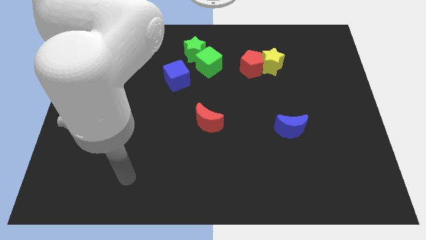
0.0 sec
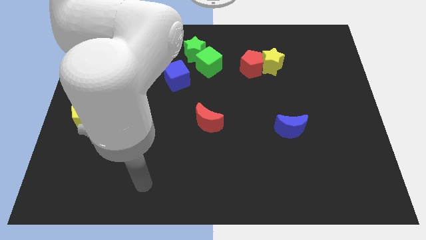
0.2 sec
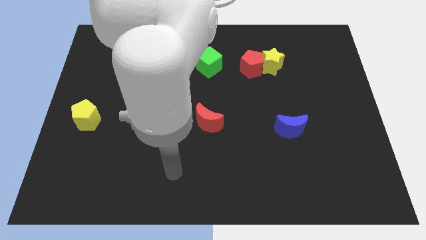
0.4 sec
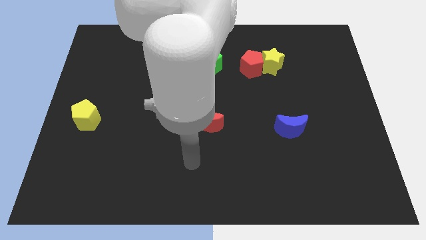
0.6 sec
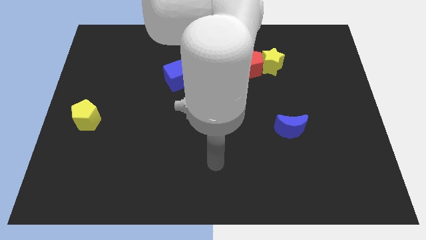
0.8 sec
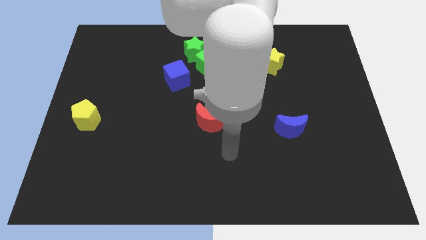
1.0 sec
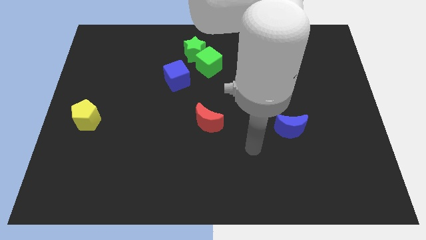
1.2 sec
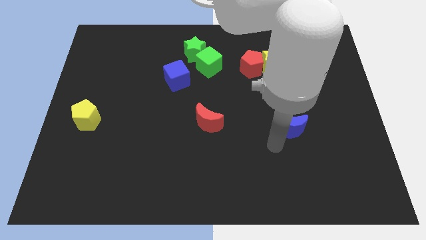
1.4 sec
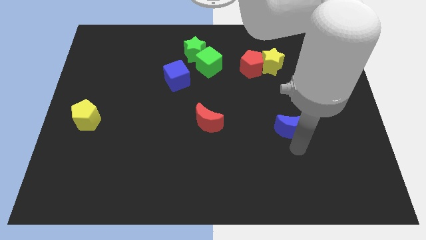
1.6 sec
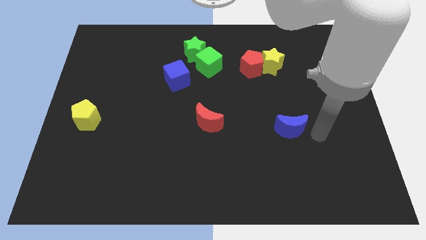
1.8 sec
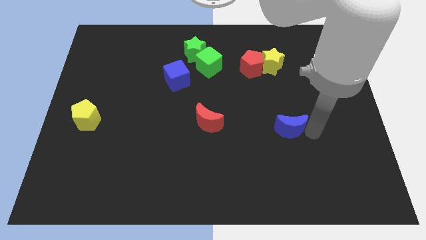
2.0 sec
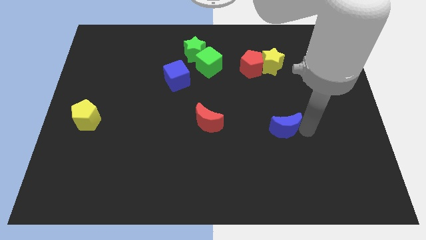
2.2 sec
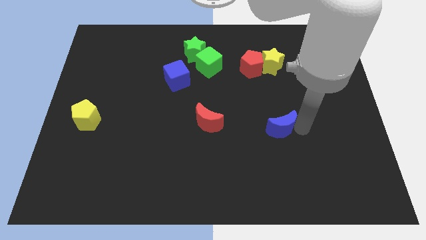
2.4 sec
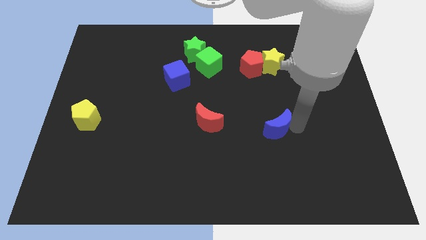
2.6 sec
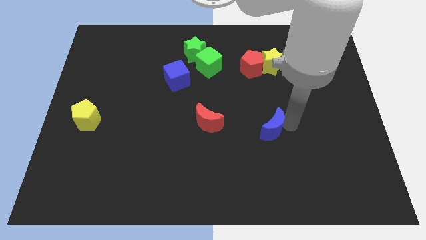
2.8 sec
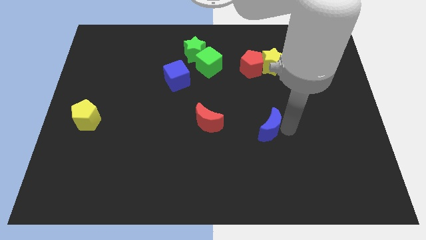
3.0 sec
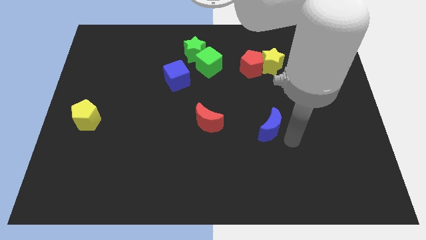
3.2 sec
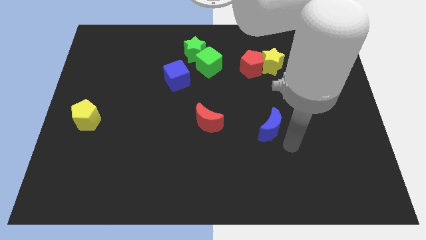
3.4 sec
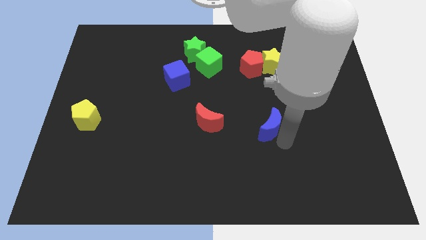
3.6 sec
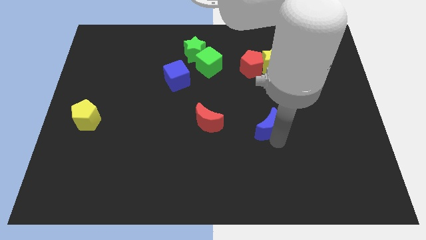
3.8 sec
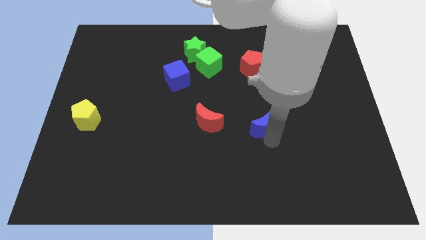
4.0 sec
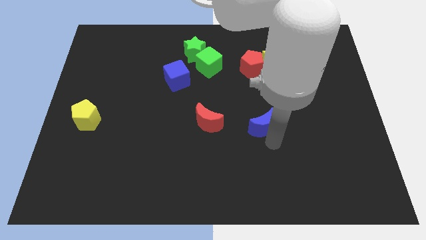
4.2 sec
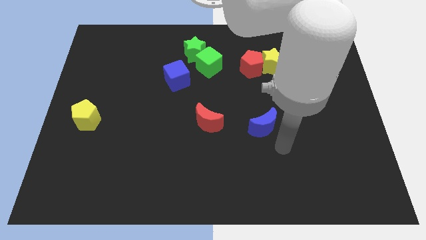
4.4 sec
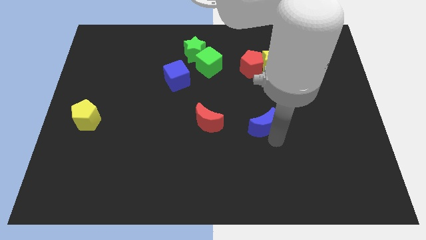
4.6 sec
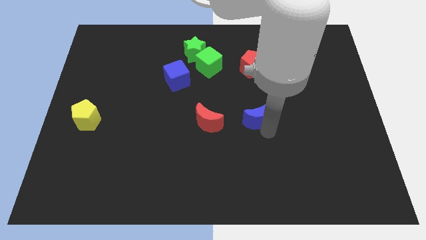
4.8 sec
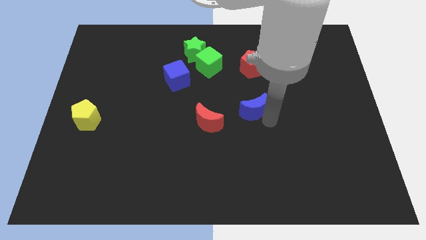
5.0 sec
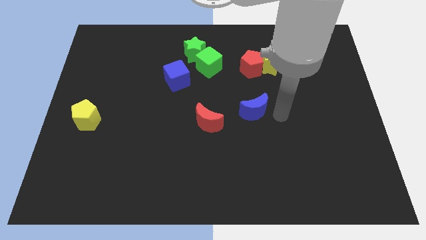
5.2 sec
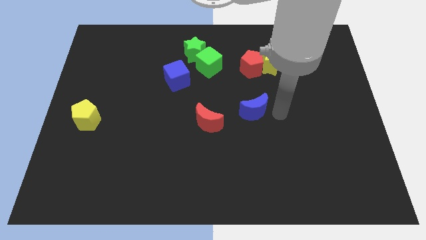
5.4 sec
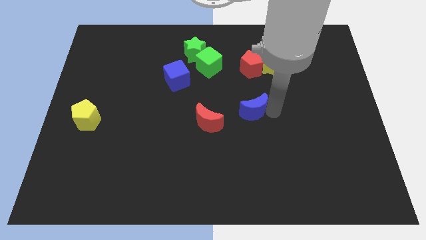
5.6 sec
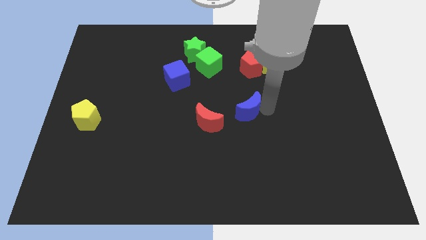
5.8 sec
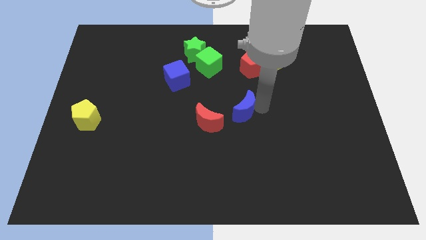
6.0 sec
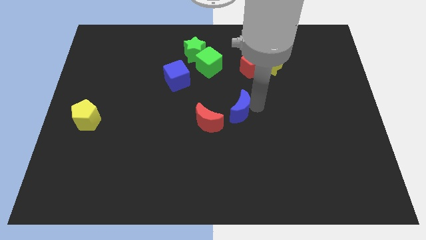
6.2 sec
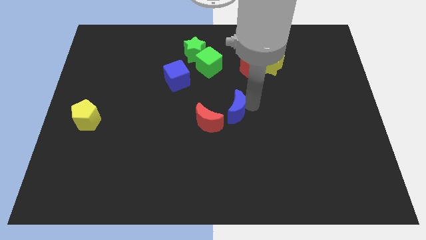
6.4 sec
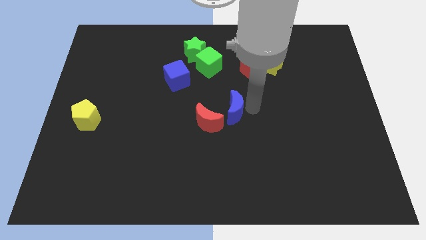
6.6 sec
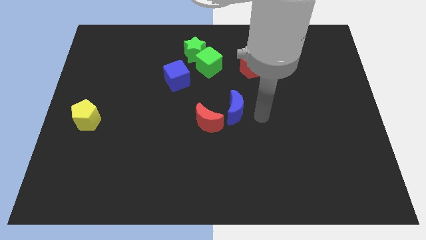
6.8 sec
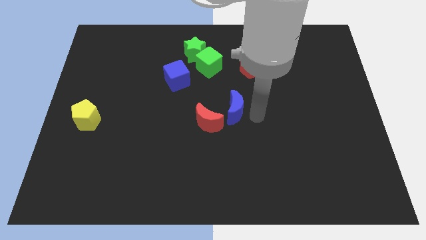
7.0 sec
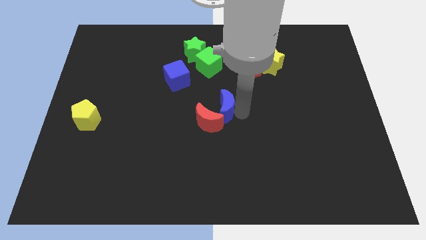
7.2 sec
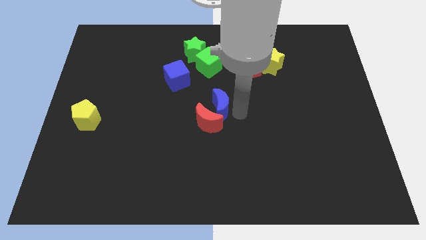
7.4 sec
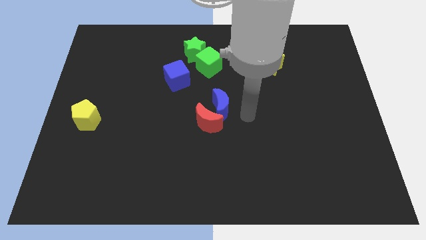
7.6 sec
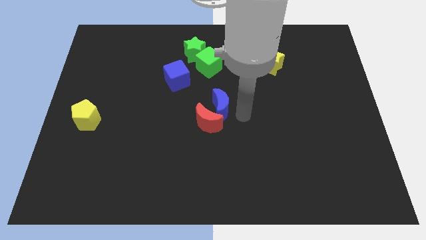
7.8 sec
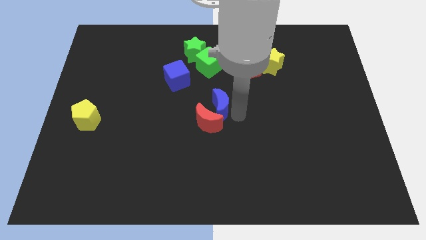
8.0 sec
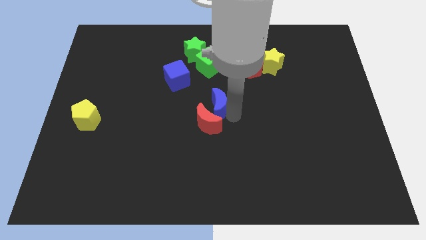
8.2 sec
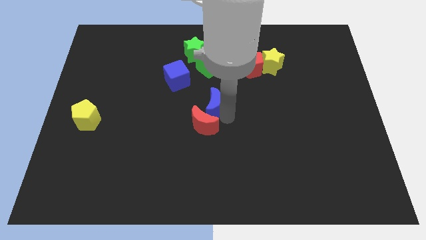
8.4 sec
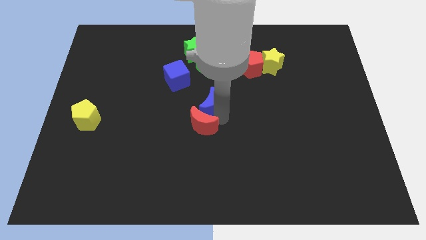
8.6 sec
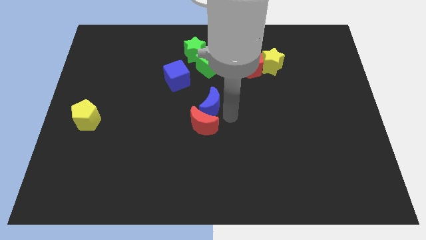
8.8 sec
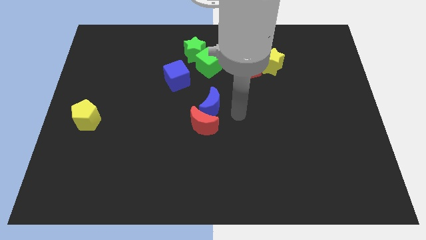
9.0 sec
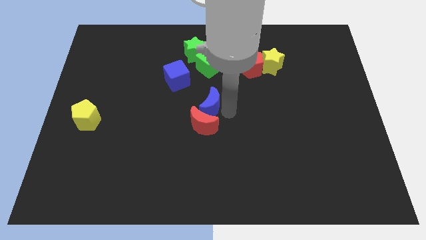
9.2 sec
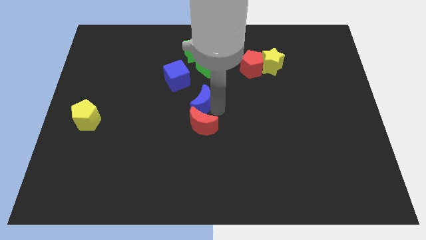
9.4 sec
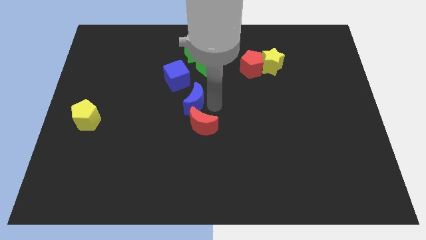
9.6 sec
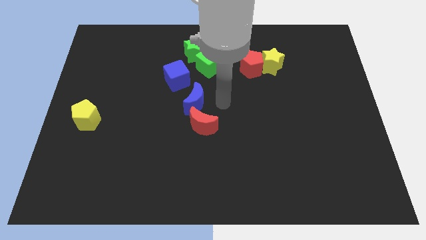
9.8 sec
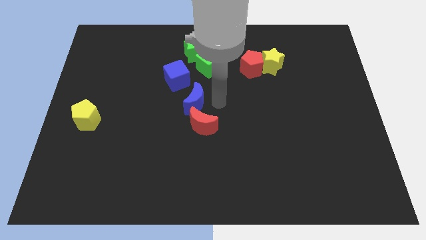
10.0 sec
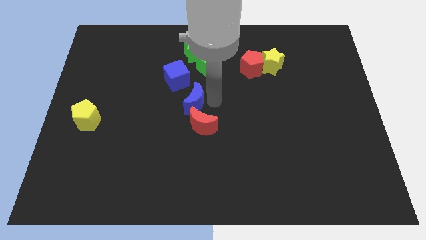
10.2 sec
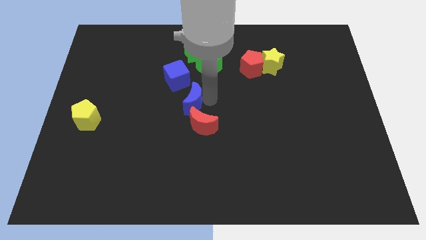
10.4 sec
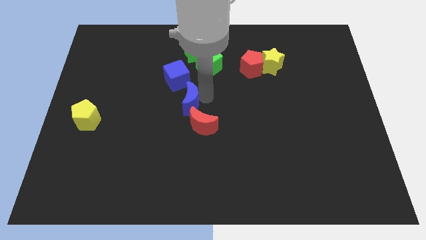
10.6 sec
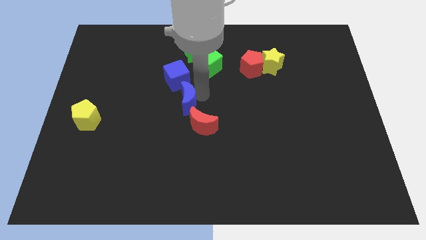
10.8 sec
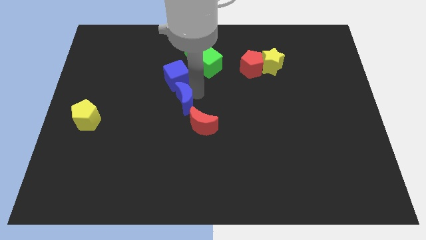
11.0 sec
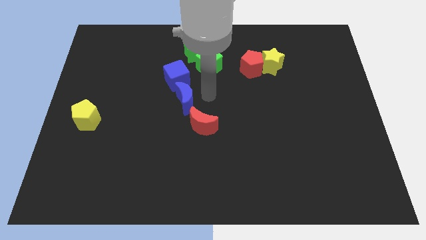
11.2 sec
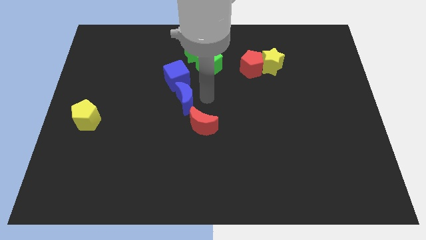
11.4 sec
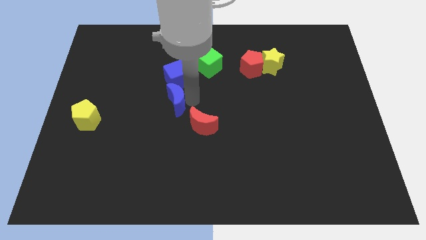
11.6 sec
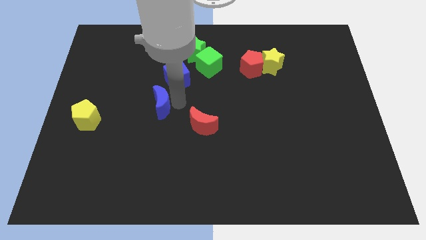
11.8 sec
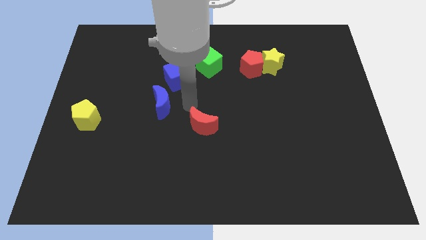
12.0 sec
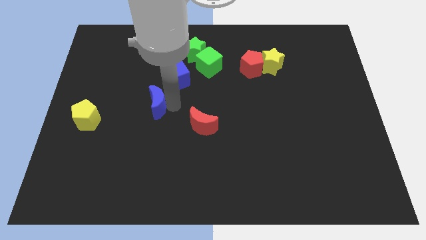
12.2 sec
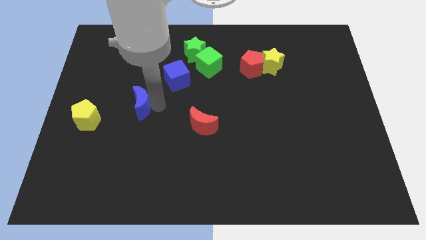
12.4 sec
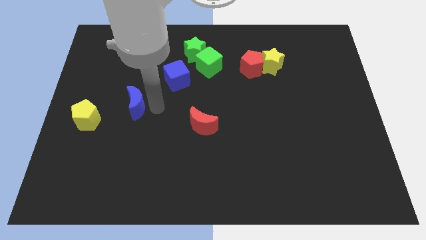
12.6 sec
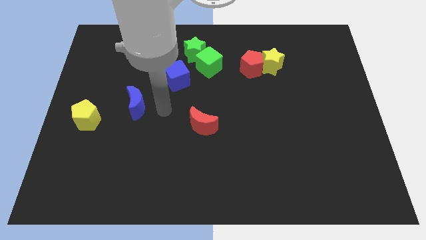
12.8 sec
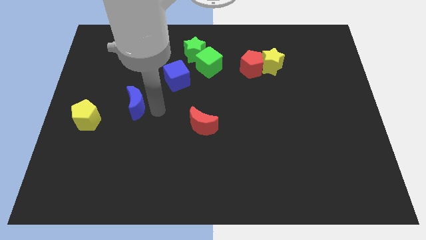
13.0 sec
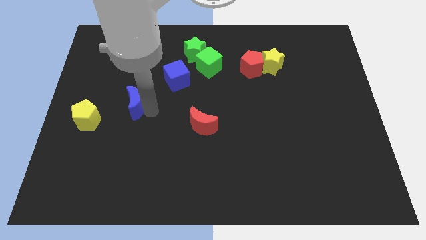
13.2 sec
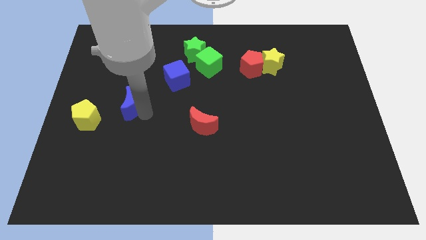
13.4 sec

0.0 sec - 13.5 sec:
push the blue moon to the top right side of the yellow pentagon

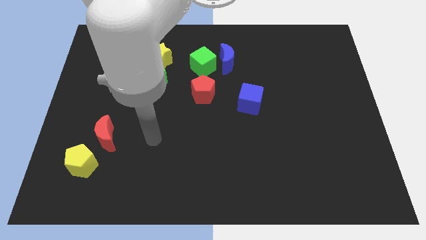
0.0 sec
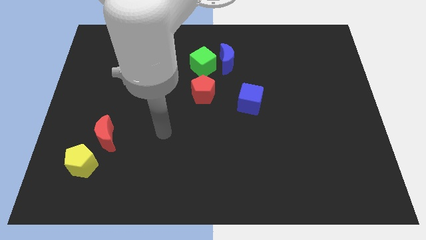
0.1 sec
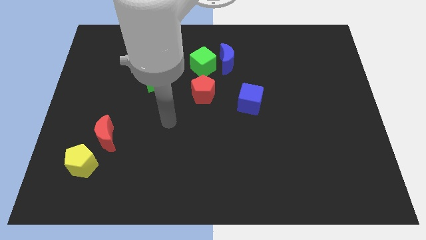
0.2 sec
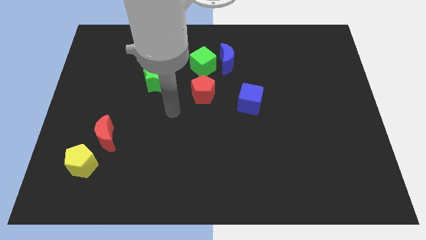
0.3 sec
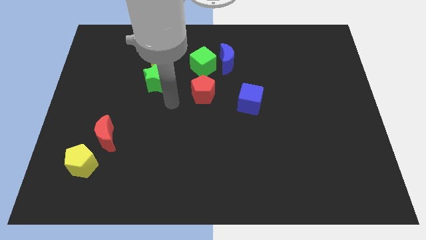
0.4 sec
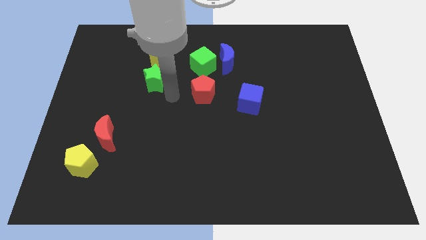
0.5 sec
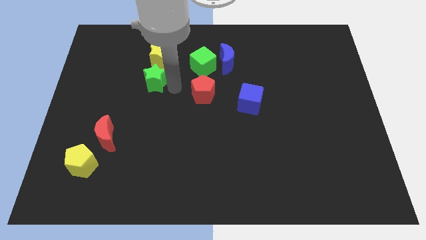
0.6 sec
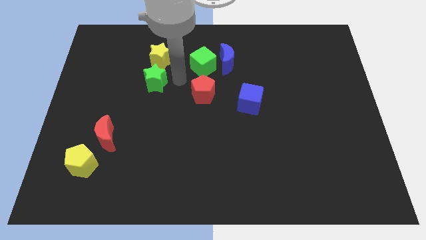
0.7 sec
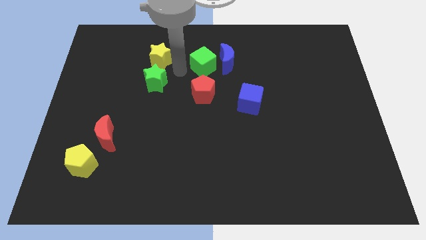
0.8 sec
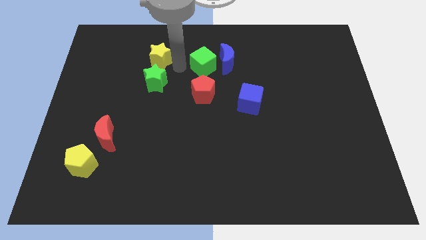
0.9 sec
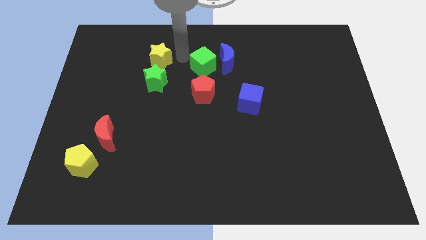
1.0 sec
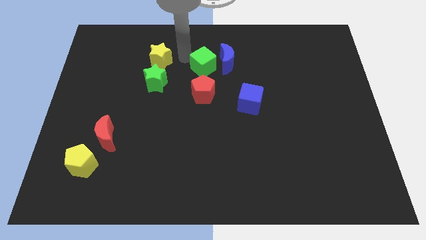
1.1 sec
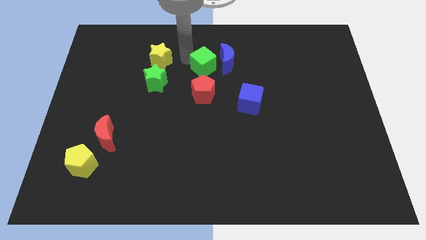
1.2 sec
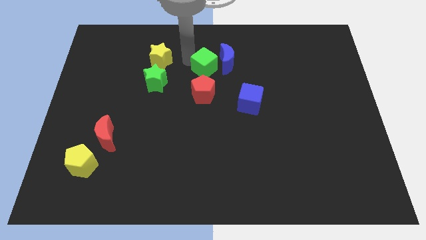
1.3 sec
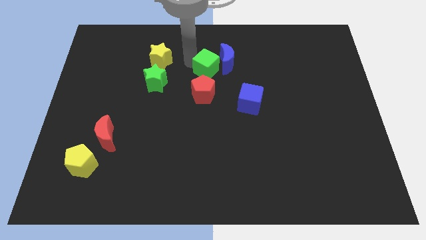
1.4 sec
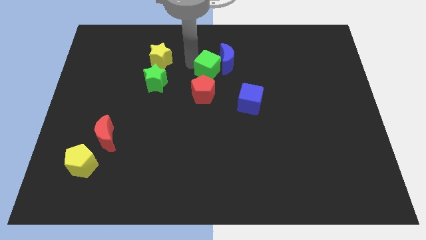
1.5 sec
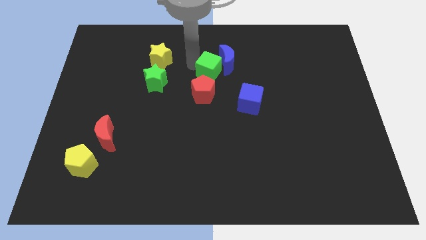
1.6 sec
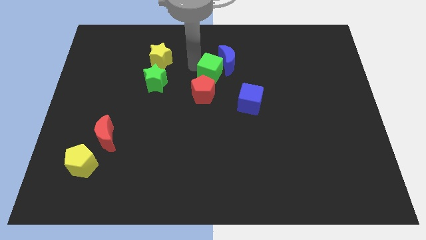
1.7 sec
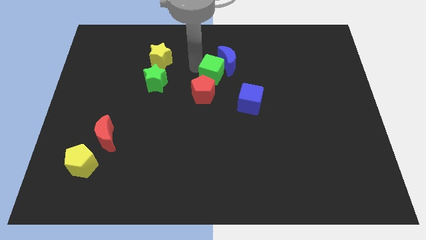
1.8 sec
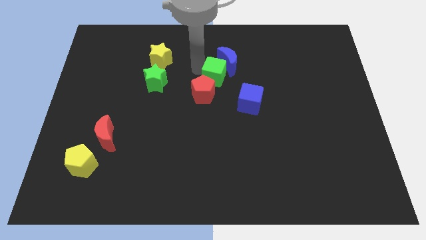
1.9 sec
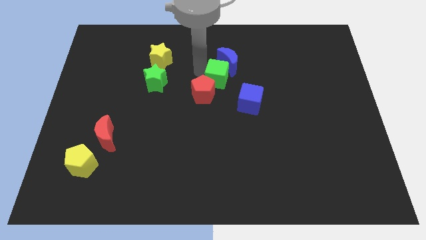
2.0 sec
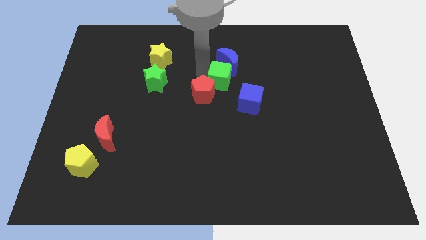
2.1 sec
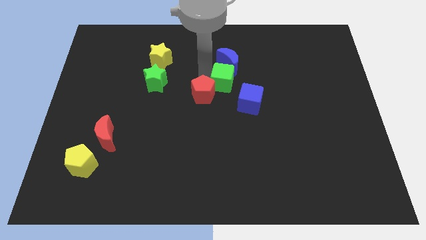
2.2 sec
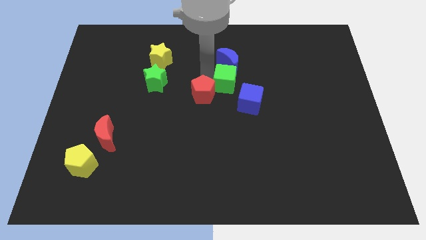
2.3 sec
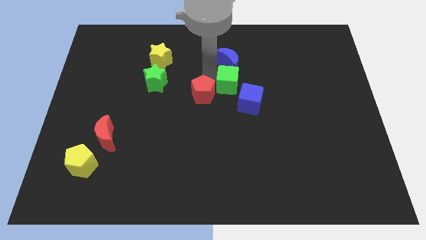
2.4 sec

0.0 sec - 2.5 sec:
push the green cube to the bottom right of the blue moon
